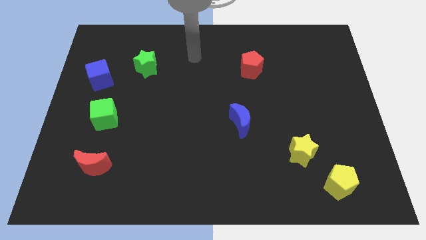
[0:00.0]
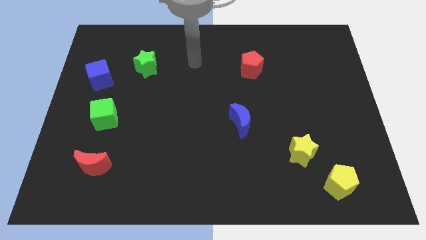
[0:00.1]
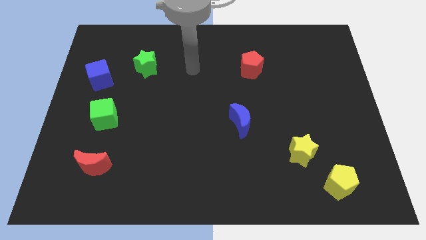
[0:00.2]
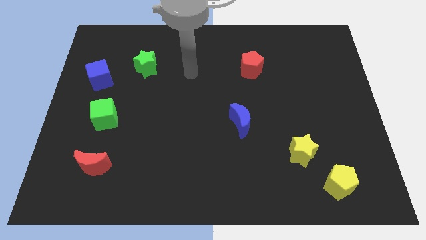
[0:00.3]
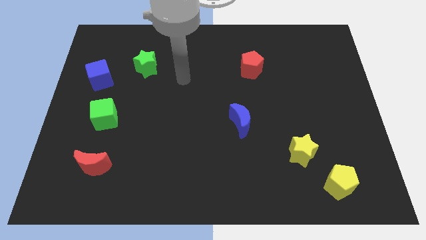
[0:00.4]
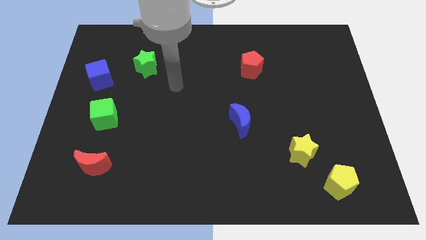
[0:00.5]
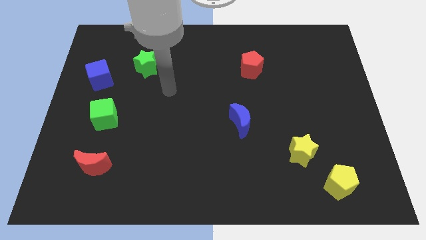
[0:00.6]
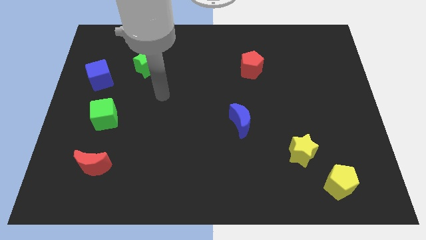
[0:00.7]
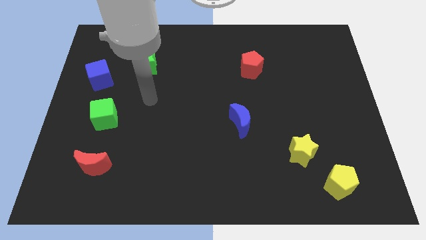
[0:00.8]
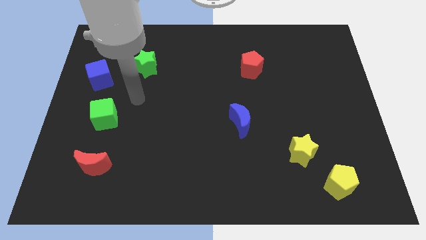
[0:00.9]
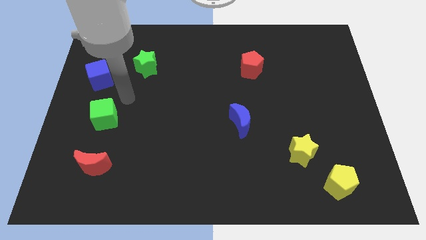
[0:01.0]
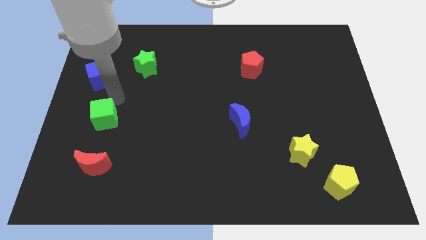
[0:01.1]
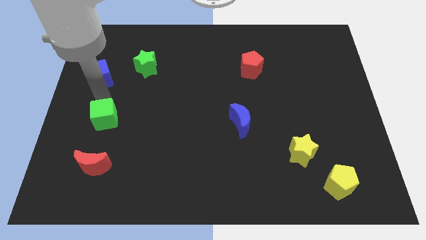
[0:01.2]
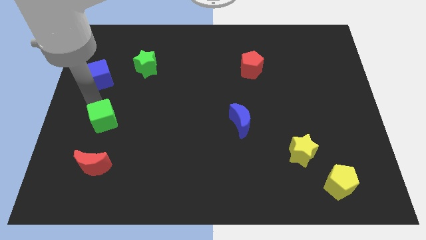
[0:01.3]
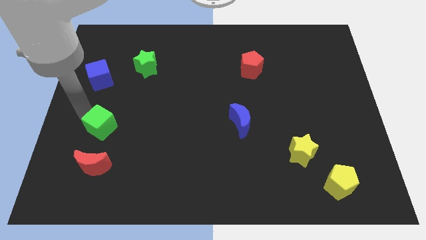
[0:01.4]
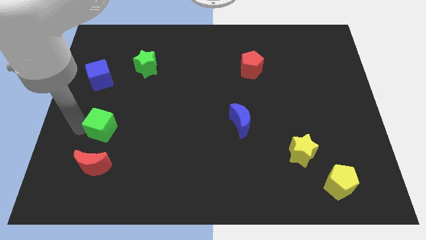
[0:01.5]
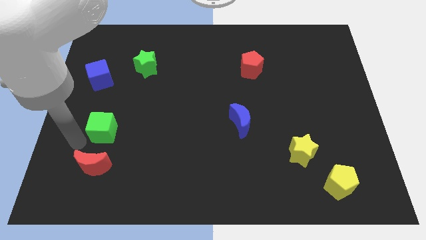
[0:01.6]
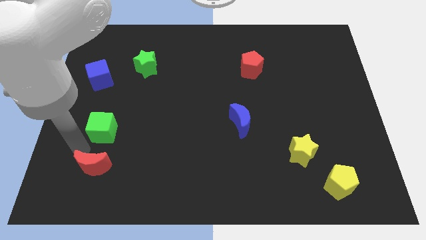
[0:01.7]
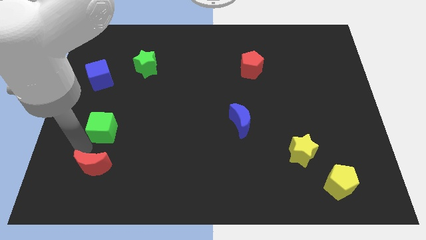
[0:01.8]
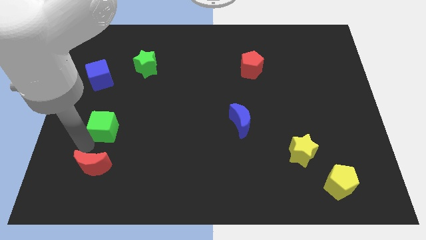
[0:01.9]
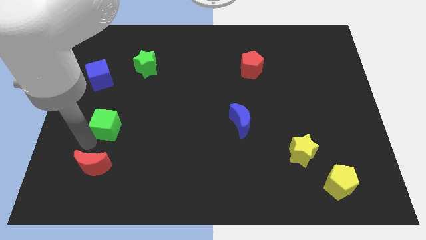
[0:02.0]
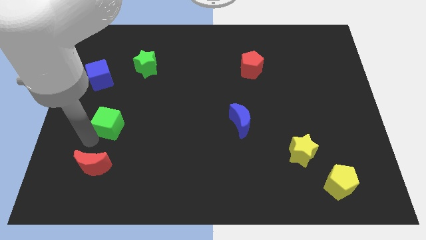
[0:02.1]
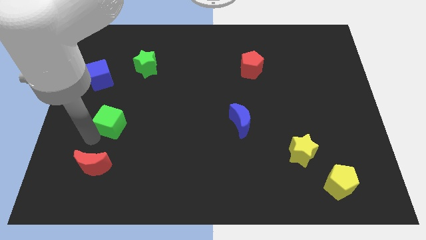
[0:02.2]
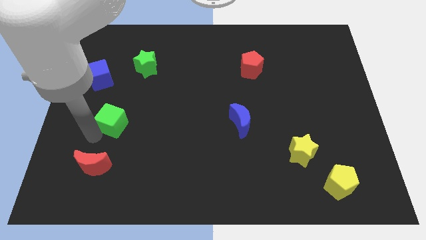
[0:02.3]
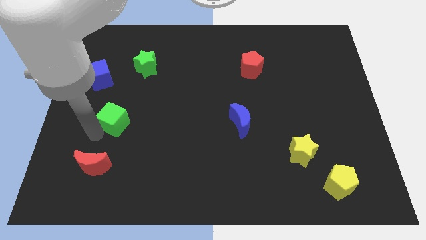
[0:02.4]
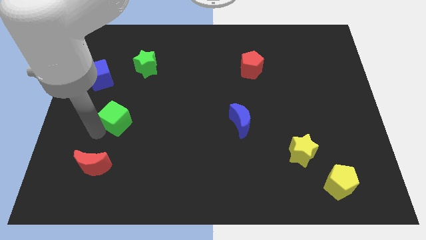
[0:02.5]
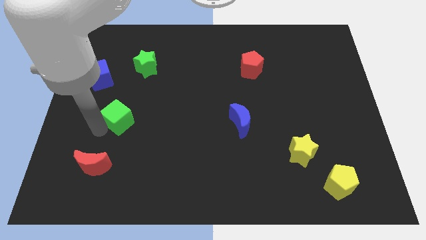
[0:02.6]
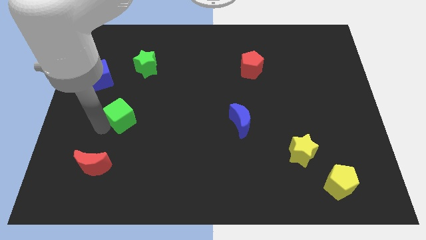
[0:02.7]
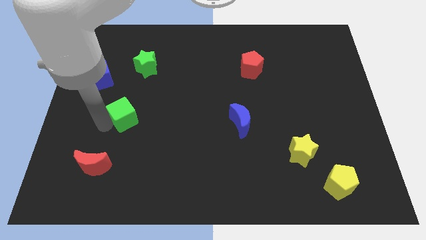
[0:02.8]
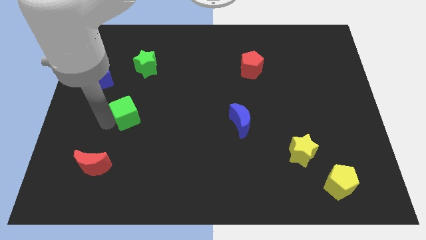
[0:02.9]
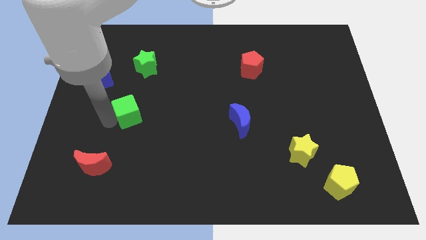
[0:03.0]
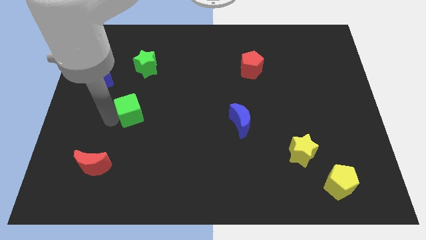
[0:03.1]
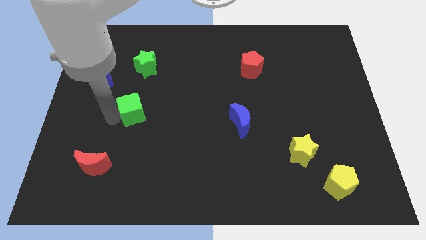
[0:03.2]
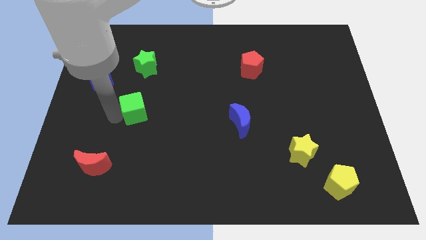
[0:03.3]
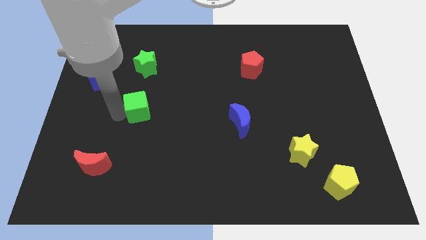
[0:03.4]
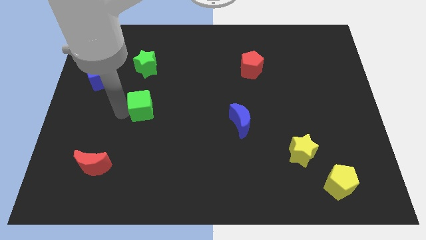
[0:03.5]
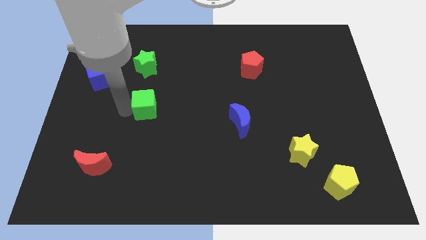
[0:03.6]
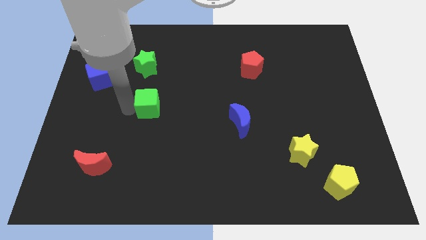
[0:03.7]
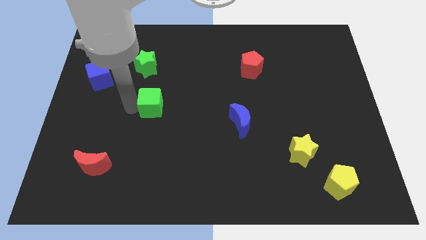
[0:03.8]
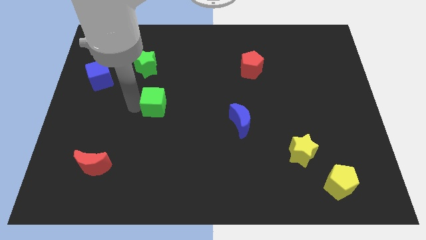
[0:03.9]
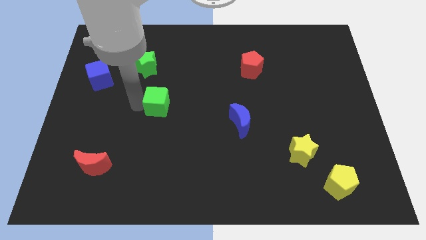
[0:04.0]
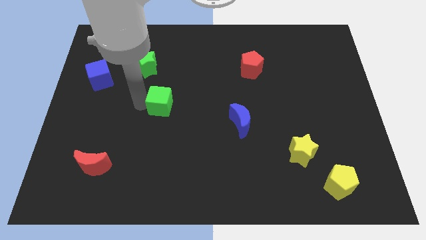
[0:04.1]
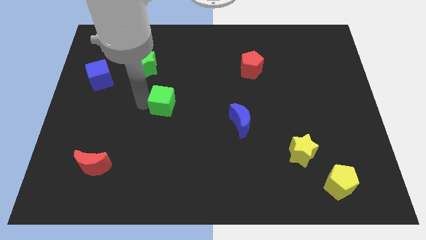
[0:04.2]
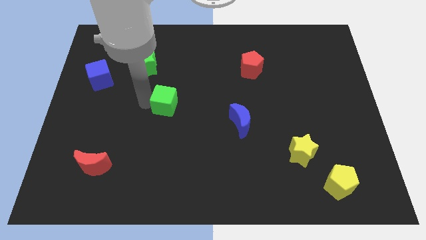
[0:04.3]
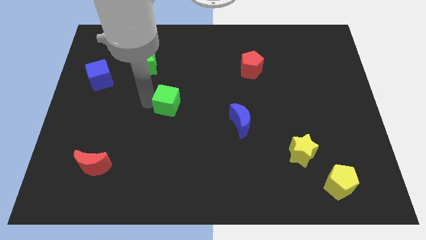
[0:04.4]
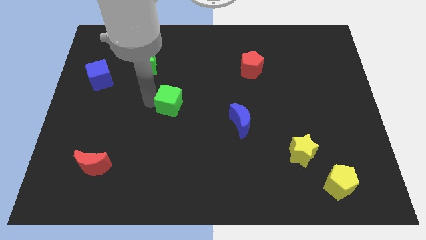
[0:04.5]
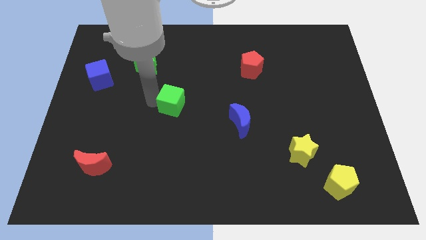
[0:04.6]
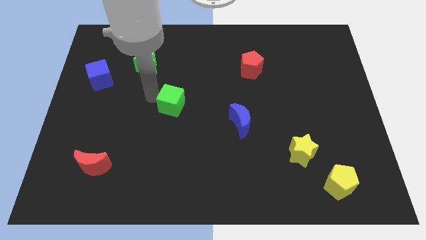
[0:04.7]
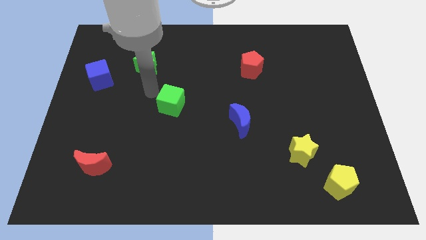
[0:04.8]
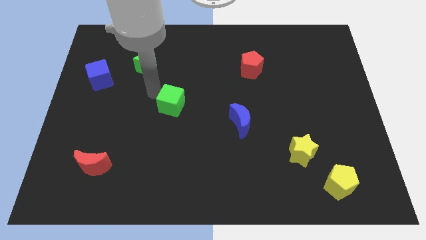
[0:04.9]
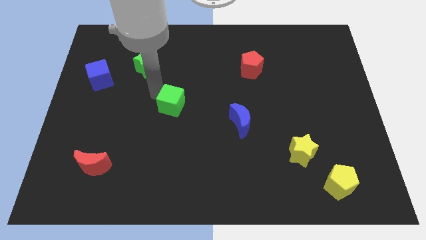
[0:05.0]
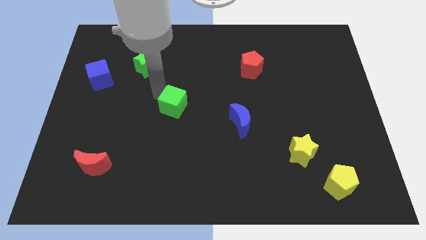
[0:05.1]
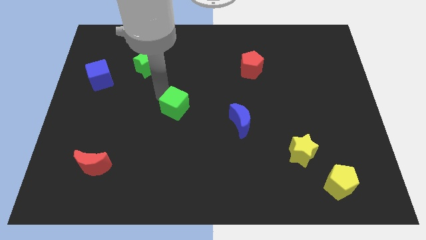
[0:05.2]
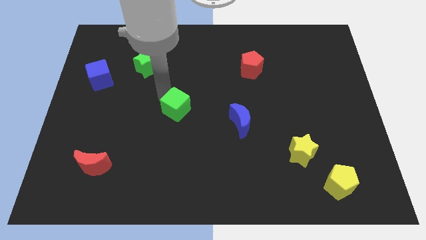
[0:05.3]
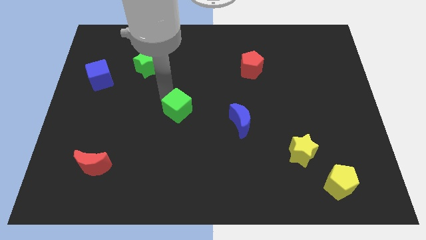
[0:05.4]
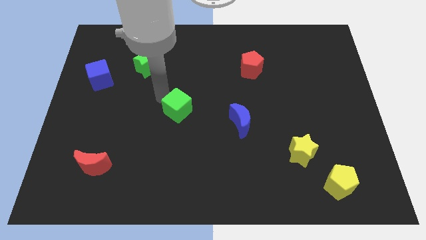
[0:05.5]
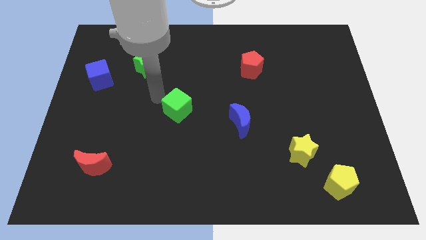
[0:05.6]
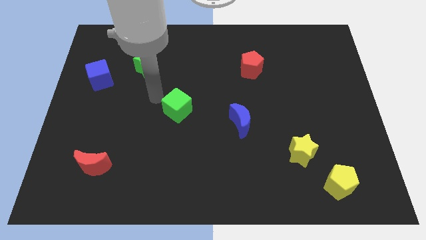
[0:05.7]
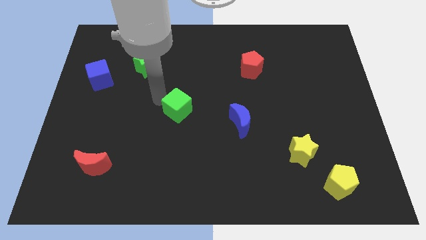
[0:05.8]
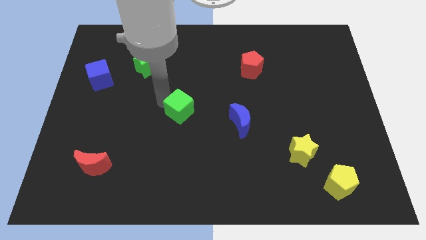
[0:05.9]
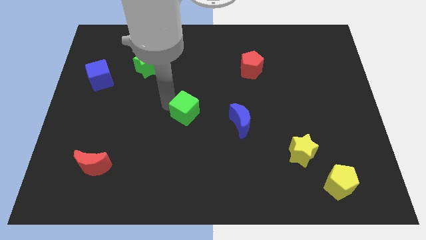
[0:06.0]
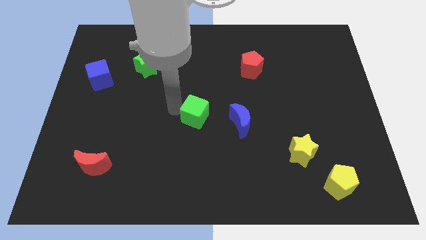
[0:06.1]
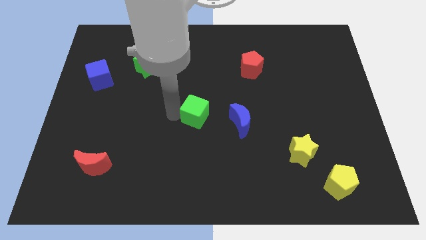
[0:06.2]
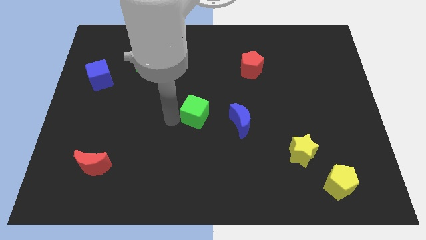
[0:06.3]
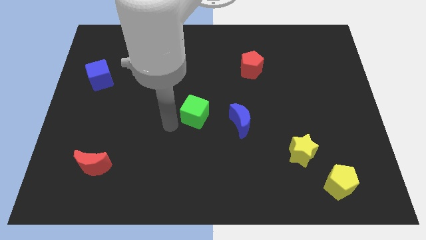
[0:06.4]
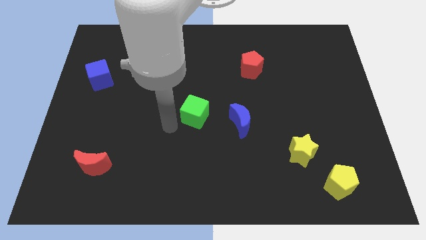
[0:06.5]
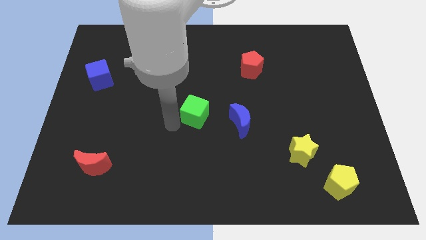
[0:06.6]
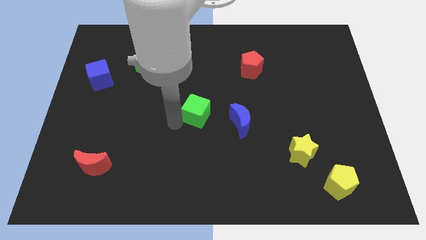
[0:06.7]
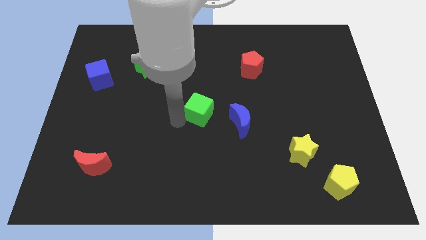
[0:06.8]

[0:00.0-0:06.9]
push the green cube to the top left of the blue moon
